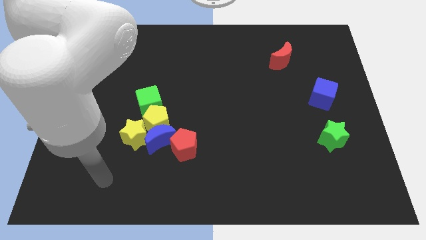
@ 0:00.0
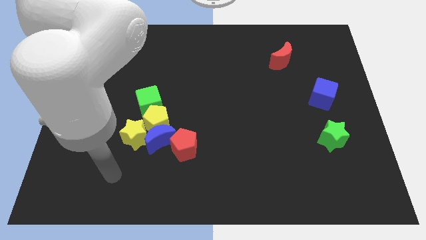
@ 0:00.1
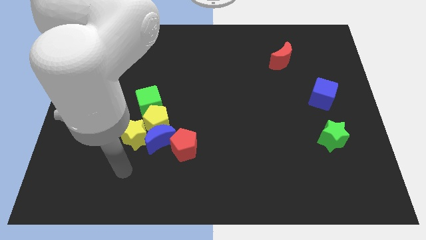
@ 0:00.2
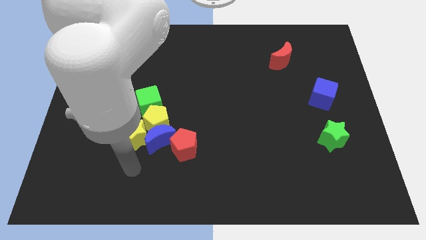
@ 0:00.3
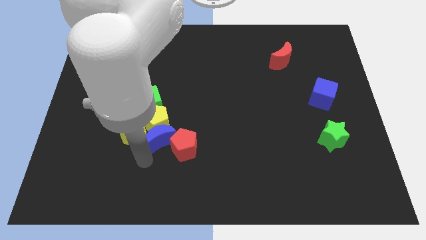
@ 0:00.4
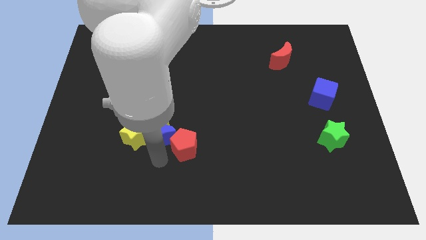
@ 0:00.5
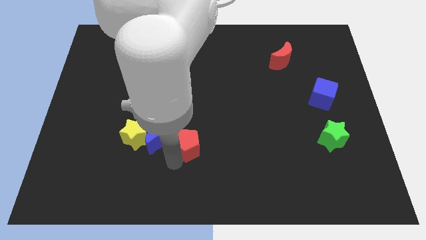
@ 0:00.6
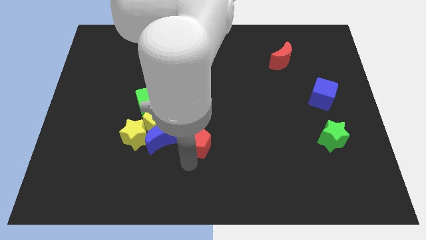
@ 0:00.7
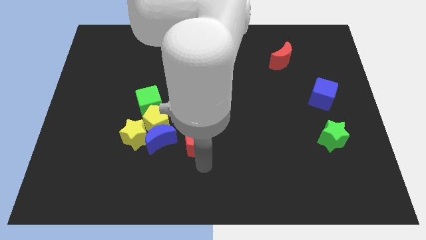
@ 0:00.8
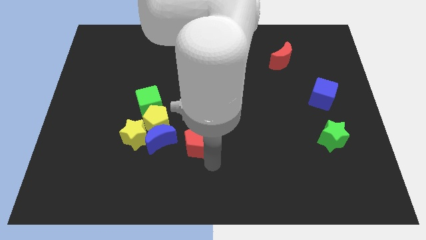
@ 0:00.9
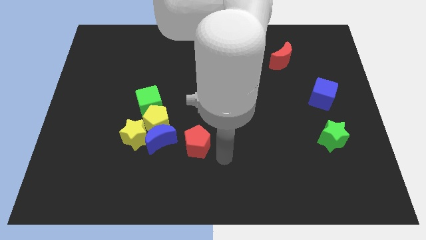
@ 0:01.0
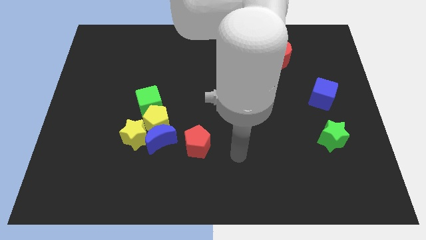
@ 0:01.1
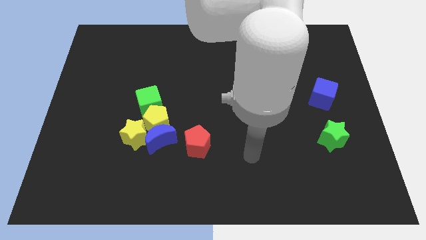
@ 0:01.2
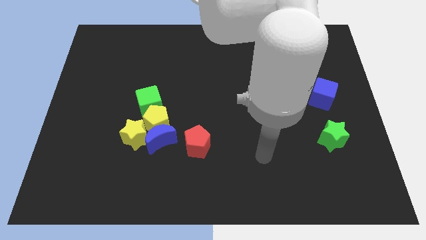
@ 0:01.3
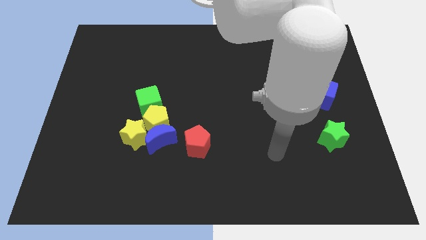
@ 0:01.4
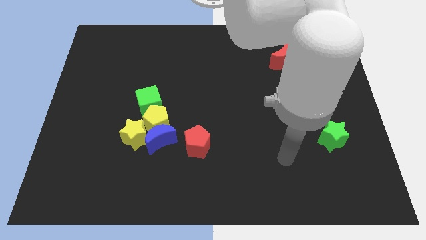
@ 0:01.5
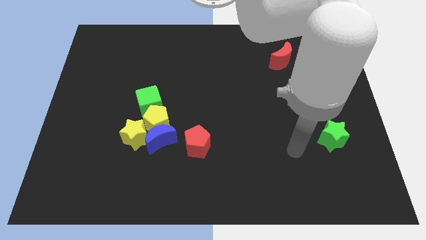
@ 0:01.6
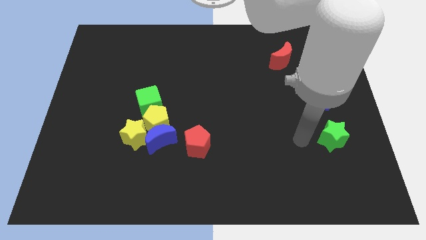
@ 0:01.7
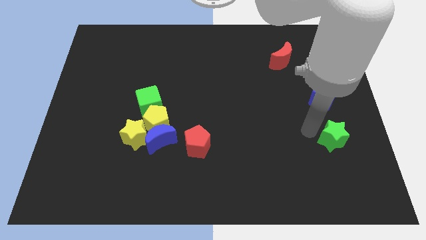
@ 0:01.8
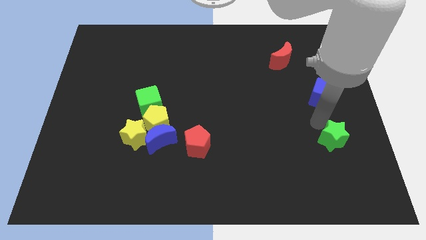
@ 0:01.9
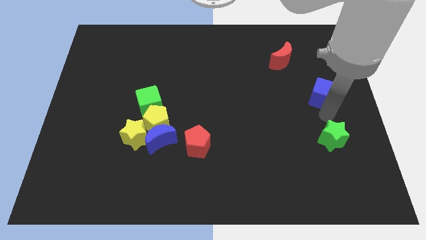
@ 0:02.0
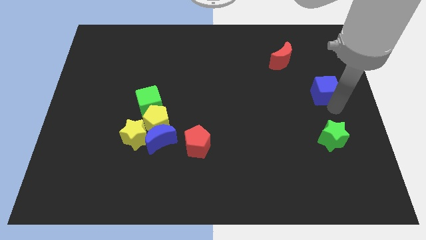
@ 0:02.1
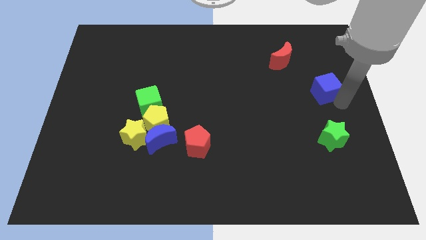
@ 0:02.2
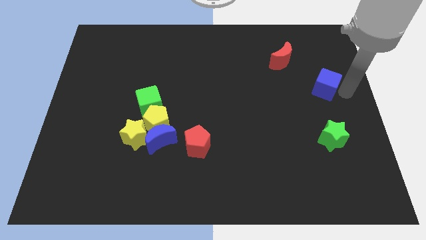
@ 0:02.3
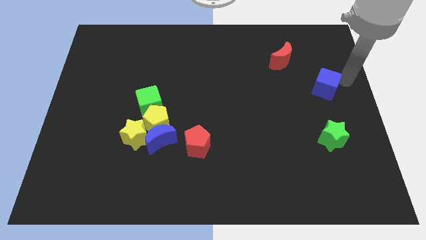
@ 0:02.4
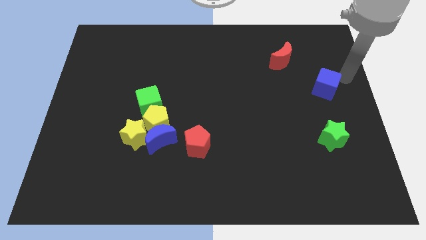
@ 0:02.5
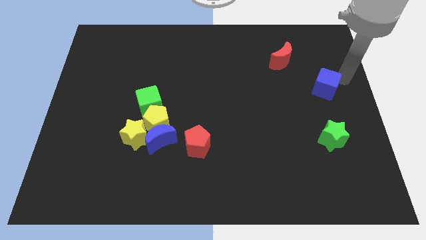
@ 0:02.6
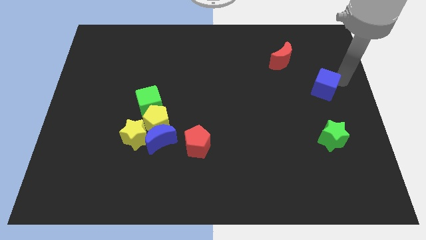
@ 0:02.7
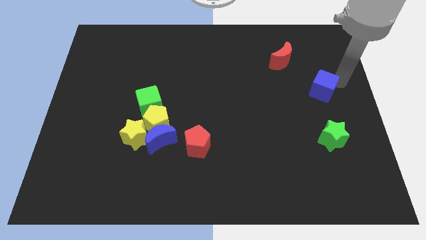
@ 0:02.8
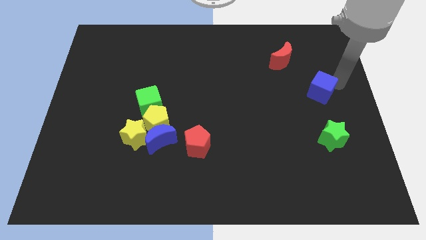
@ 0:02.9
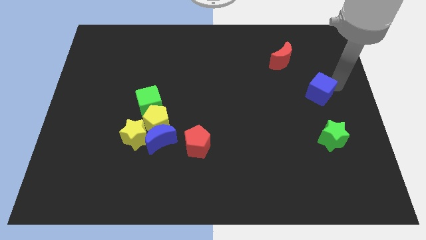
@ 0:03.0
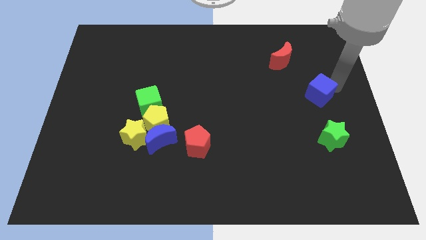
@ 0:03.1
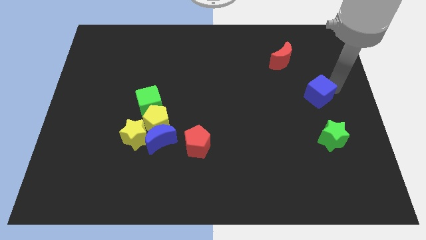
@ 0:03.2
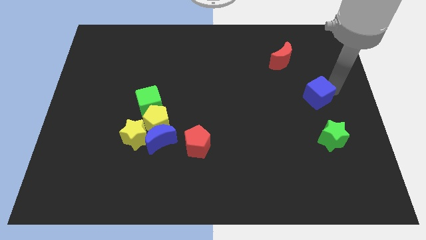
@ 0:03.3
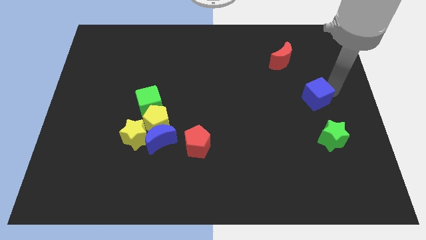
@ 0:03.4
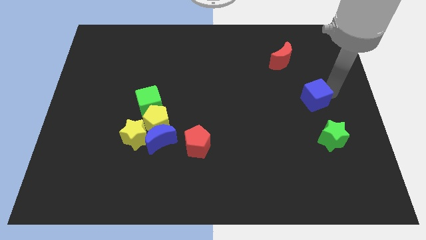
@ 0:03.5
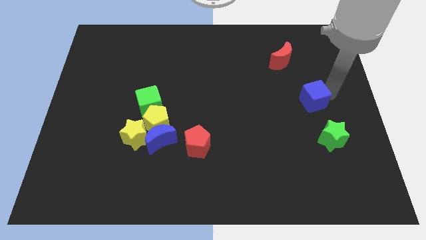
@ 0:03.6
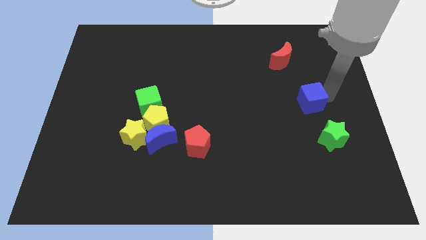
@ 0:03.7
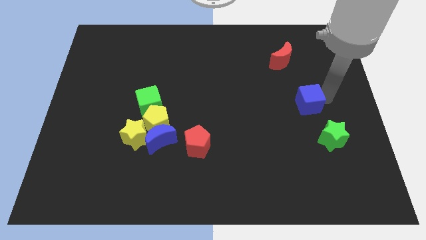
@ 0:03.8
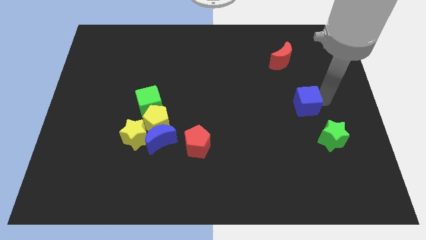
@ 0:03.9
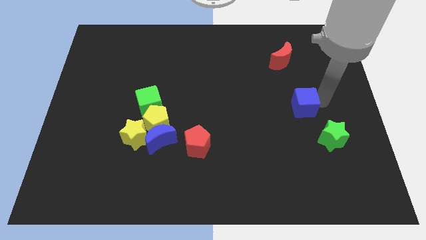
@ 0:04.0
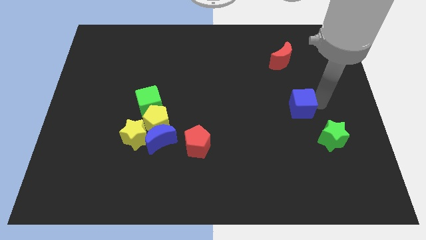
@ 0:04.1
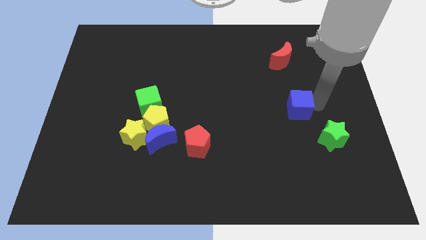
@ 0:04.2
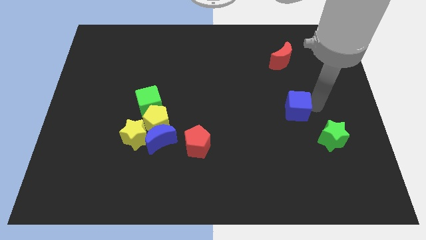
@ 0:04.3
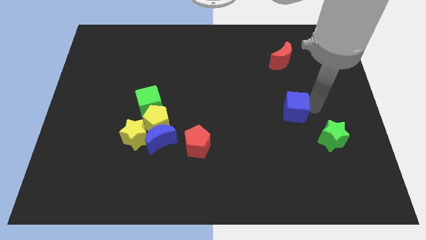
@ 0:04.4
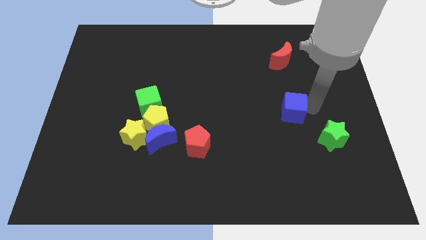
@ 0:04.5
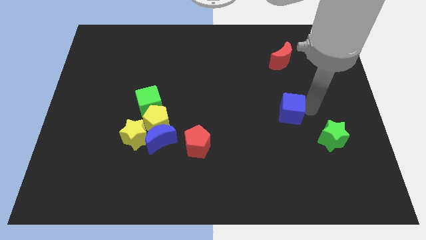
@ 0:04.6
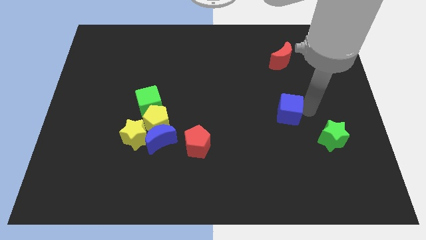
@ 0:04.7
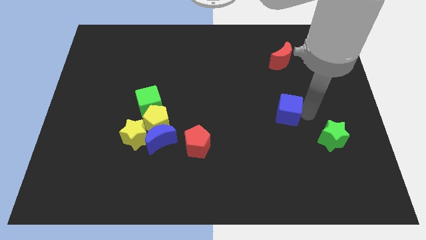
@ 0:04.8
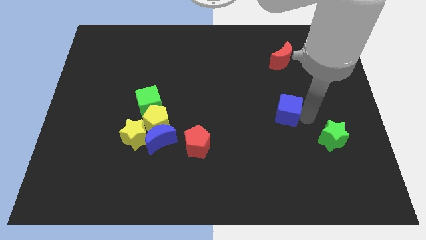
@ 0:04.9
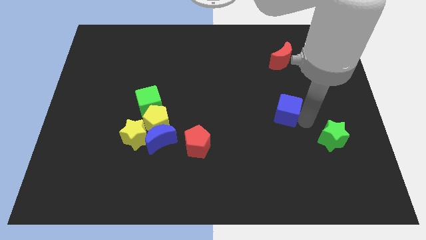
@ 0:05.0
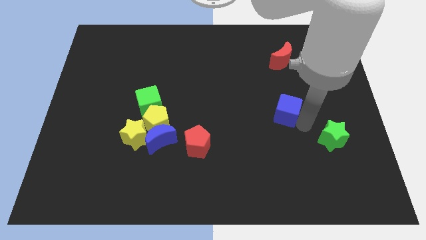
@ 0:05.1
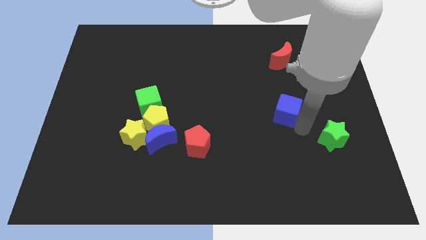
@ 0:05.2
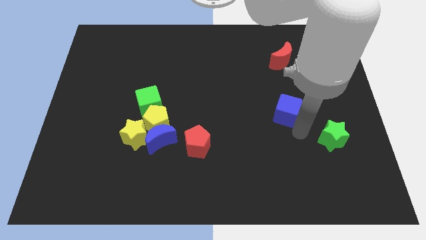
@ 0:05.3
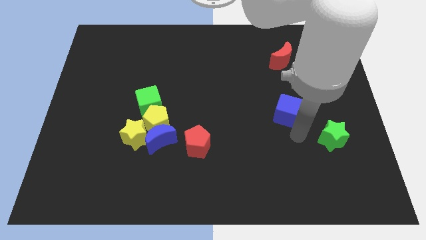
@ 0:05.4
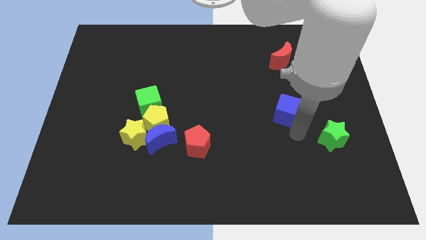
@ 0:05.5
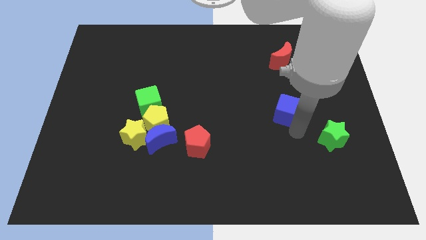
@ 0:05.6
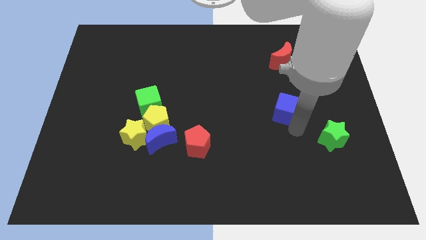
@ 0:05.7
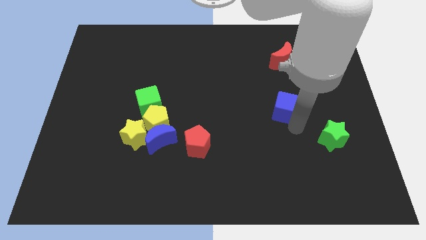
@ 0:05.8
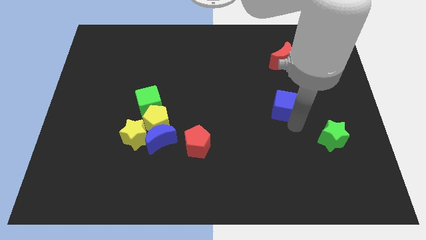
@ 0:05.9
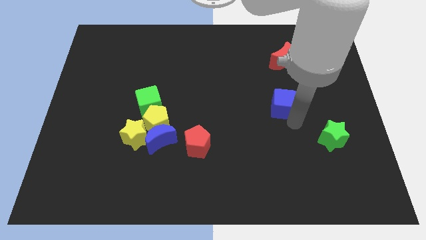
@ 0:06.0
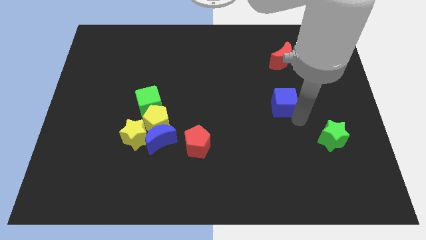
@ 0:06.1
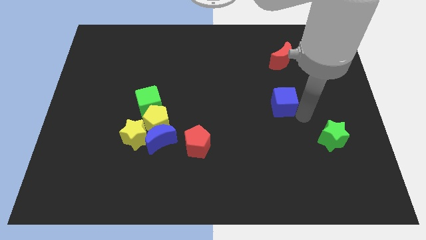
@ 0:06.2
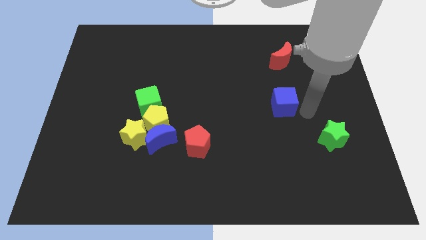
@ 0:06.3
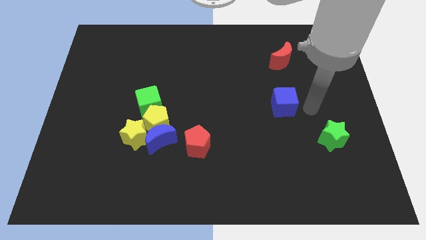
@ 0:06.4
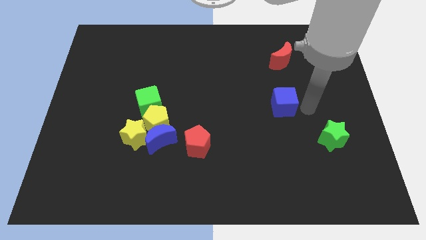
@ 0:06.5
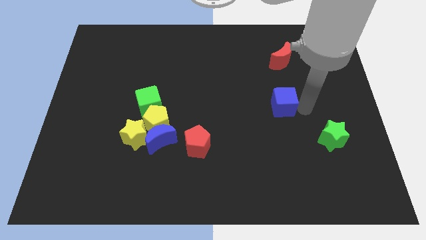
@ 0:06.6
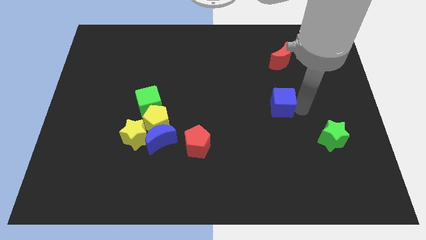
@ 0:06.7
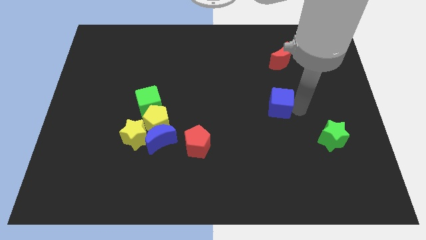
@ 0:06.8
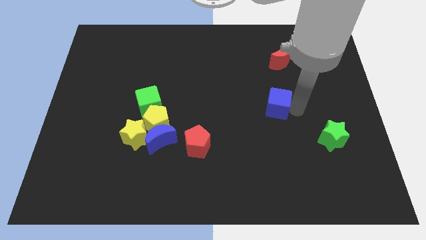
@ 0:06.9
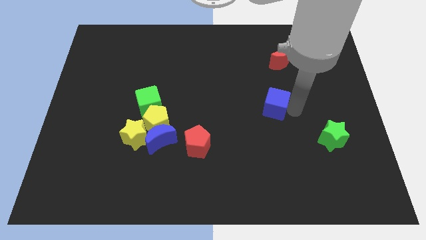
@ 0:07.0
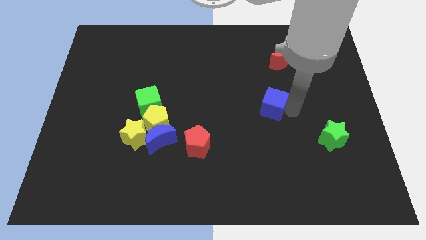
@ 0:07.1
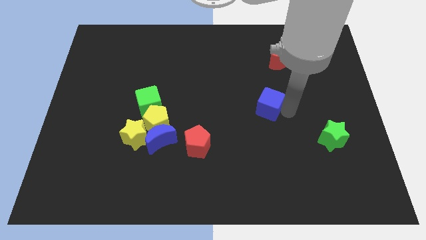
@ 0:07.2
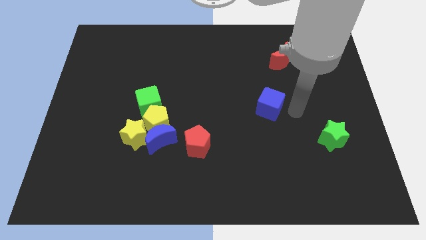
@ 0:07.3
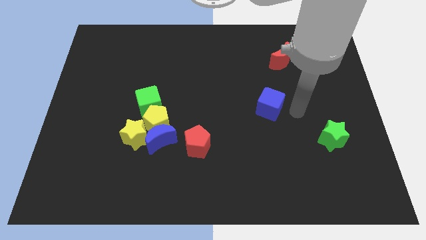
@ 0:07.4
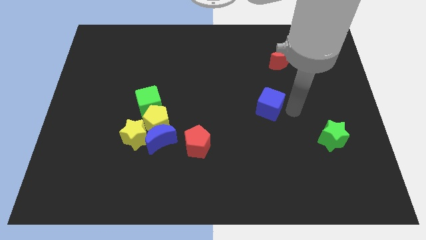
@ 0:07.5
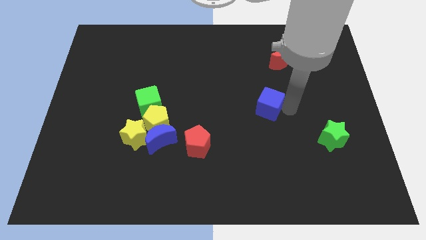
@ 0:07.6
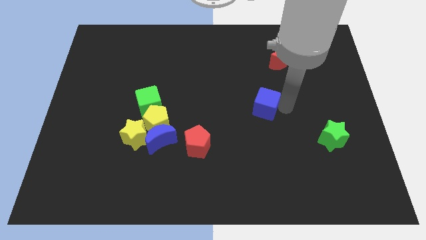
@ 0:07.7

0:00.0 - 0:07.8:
move the blue cube to the center
